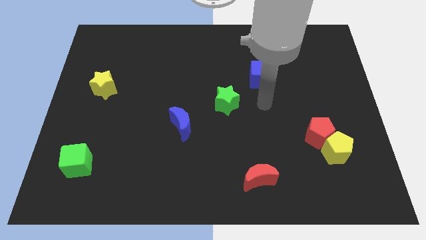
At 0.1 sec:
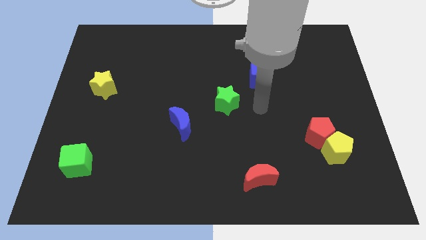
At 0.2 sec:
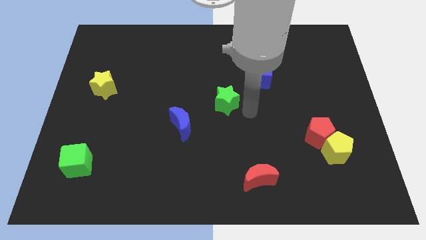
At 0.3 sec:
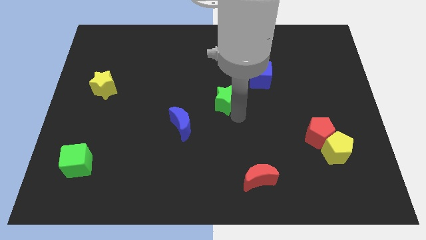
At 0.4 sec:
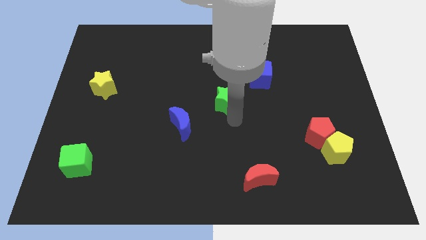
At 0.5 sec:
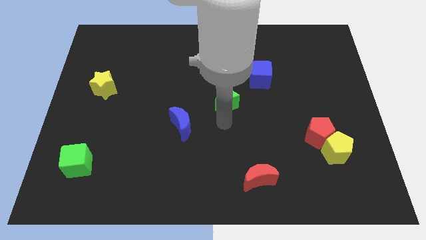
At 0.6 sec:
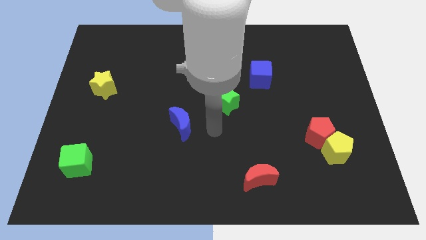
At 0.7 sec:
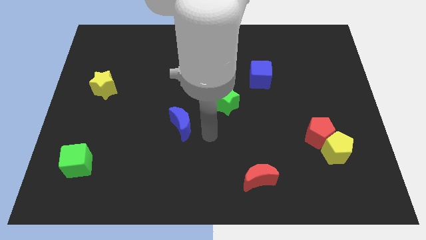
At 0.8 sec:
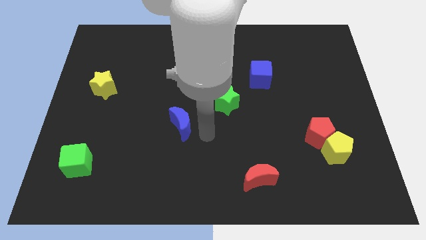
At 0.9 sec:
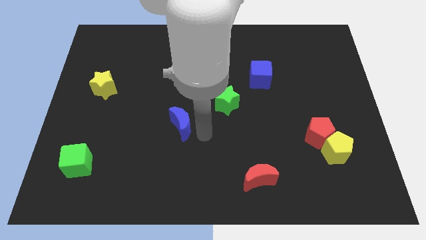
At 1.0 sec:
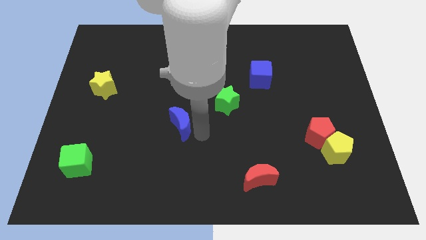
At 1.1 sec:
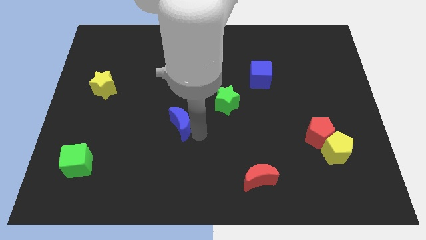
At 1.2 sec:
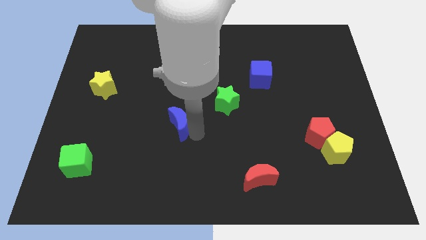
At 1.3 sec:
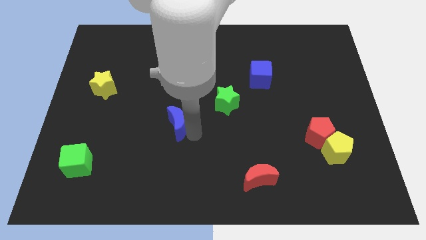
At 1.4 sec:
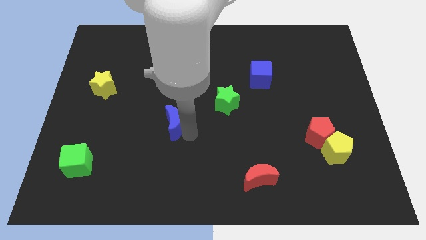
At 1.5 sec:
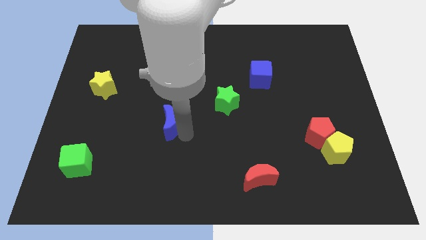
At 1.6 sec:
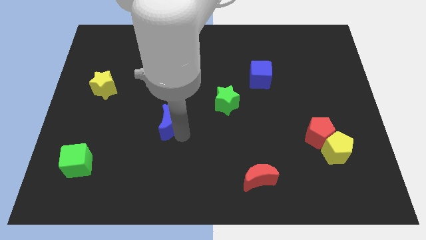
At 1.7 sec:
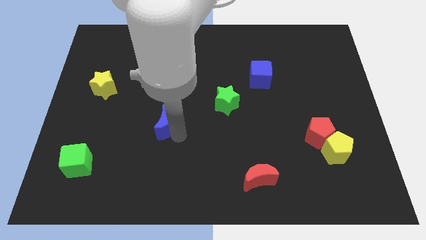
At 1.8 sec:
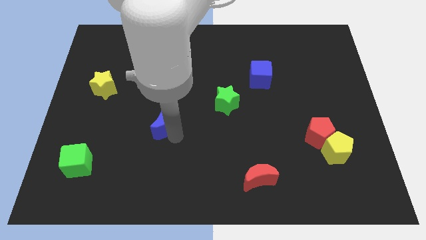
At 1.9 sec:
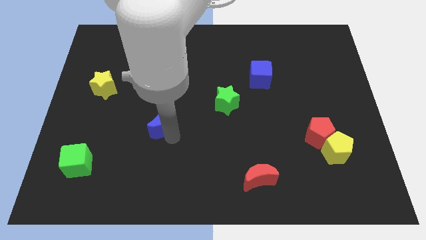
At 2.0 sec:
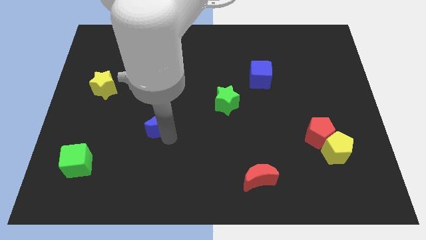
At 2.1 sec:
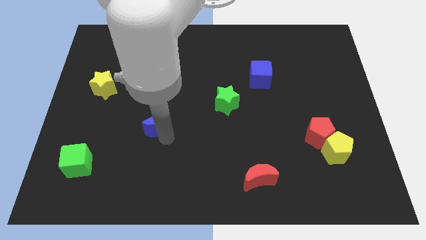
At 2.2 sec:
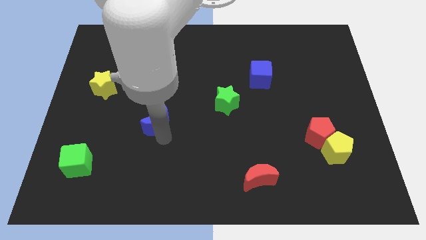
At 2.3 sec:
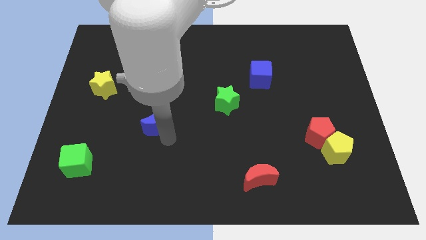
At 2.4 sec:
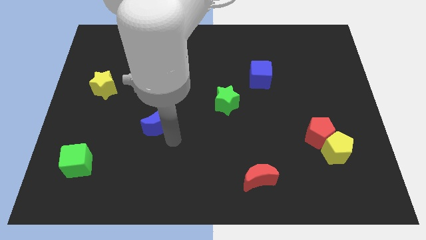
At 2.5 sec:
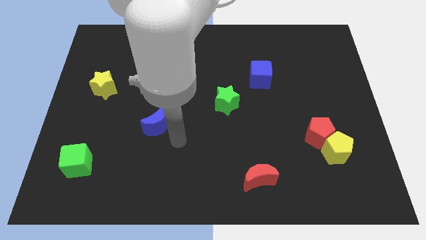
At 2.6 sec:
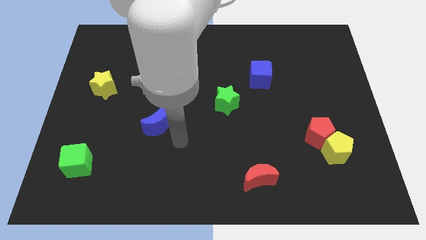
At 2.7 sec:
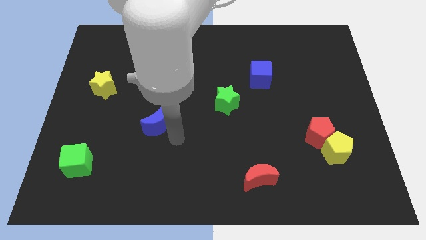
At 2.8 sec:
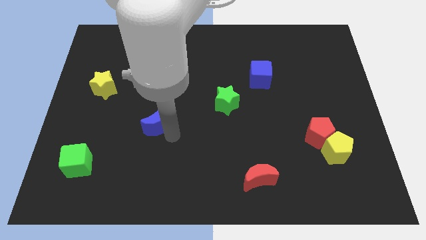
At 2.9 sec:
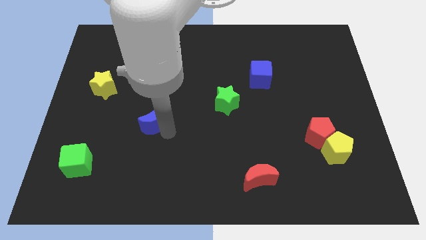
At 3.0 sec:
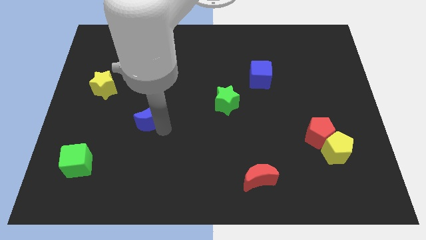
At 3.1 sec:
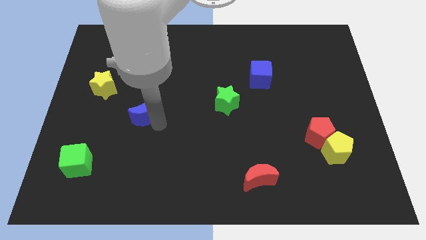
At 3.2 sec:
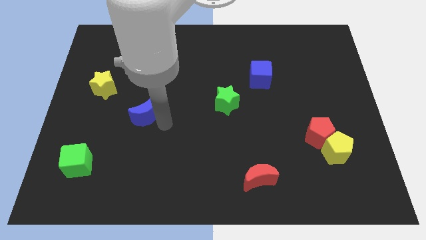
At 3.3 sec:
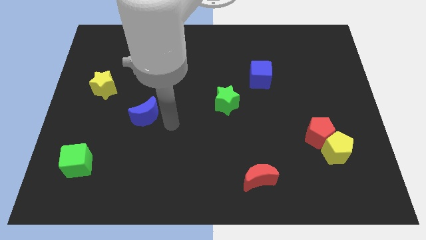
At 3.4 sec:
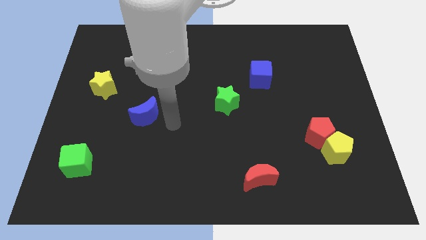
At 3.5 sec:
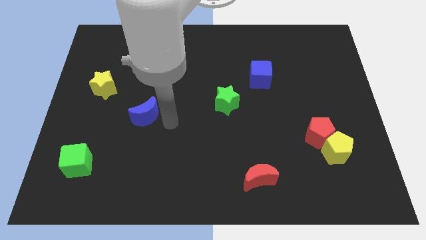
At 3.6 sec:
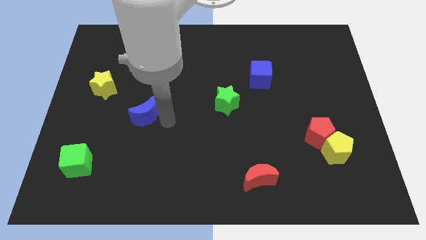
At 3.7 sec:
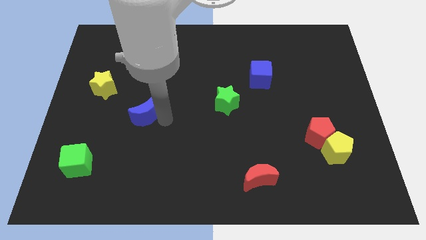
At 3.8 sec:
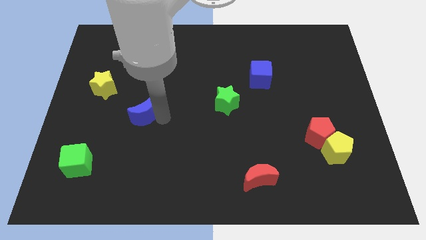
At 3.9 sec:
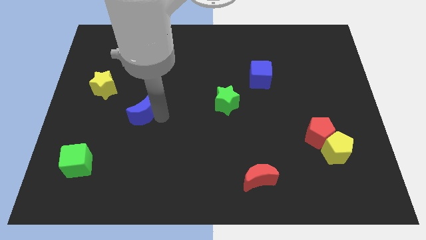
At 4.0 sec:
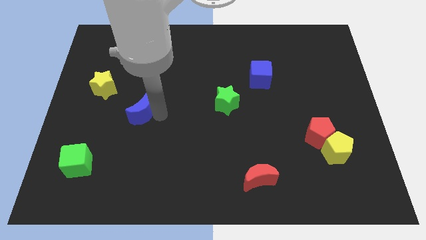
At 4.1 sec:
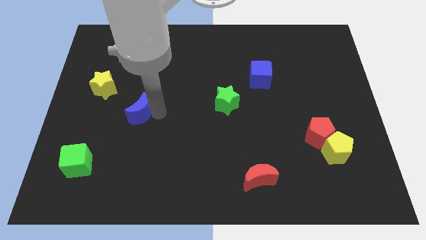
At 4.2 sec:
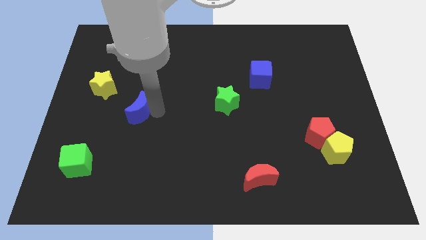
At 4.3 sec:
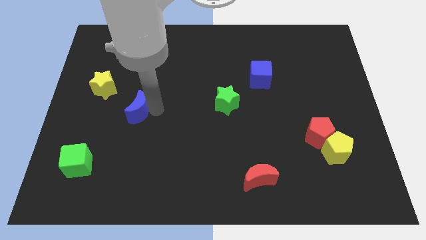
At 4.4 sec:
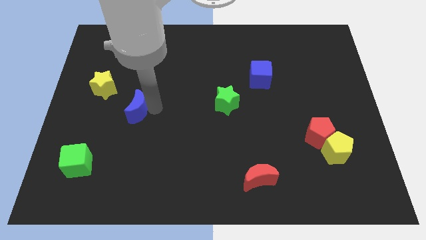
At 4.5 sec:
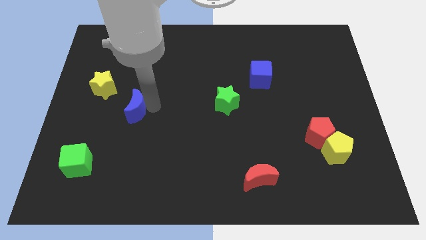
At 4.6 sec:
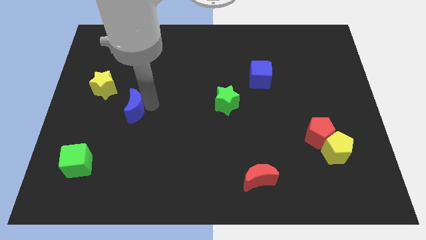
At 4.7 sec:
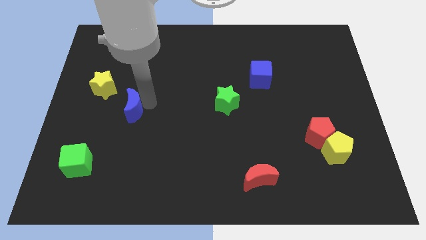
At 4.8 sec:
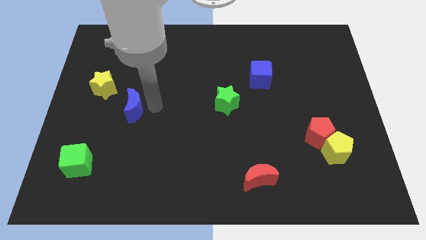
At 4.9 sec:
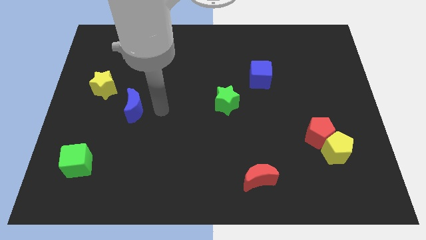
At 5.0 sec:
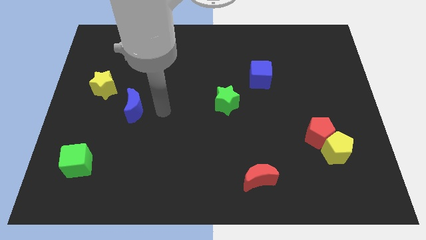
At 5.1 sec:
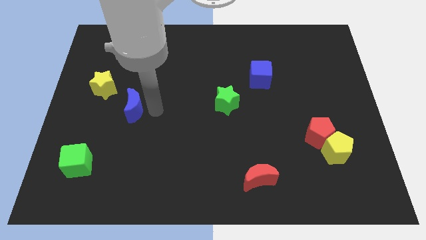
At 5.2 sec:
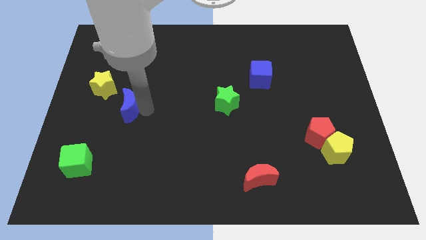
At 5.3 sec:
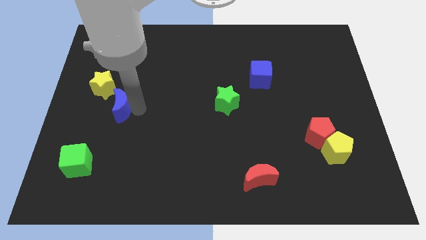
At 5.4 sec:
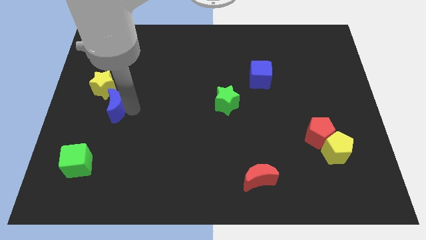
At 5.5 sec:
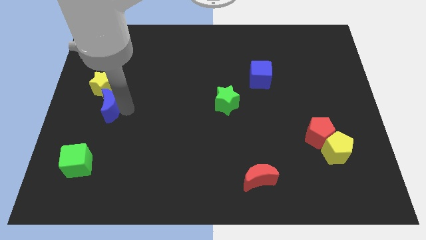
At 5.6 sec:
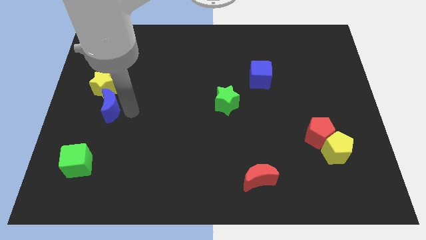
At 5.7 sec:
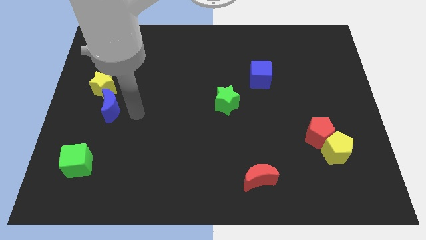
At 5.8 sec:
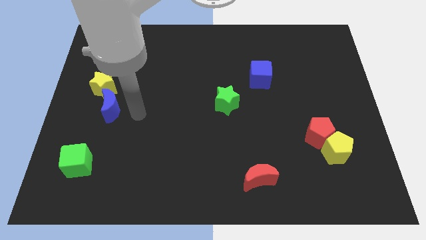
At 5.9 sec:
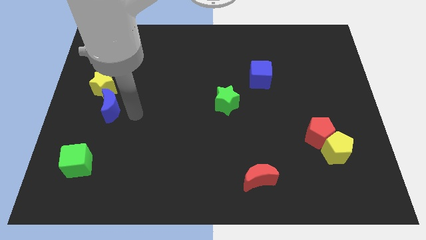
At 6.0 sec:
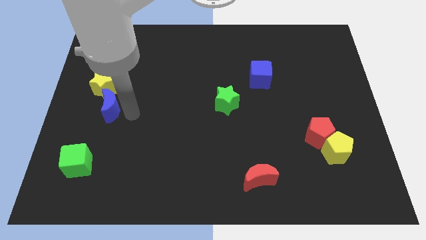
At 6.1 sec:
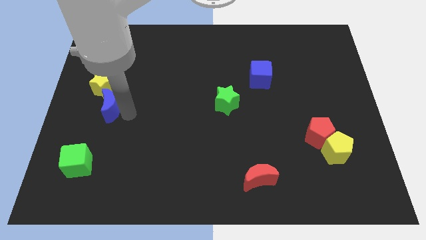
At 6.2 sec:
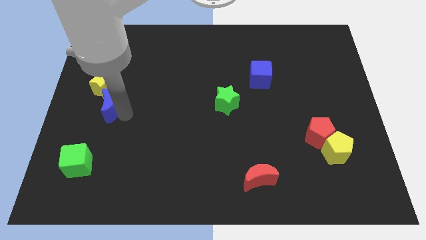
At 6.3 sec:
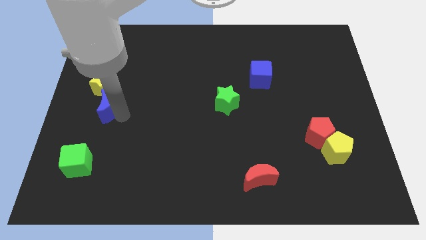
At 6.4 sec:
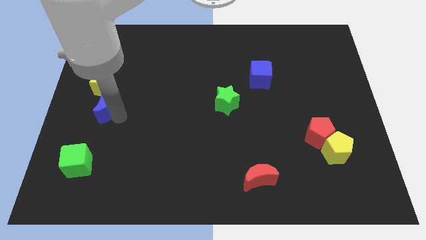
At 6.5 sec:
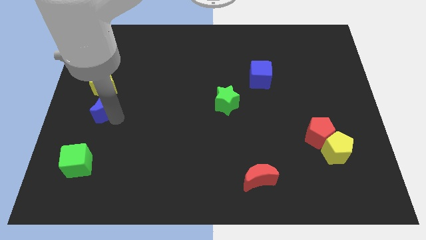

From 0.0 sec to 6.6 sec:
push the blue moon to the center left

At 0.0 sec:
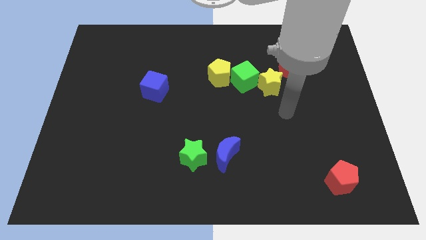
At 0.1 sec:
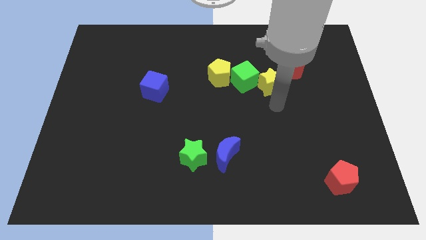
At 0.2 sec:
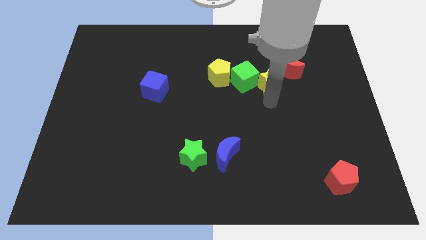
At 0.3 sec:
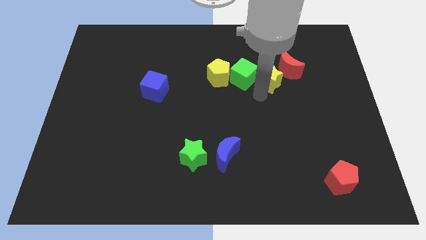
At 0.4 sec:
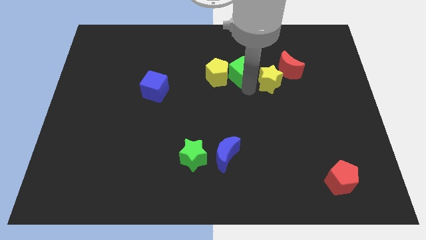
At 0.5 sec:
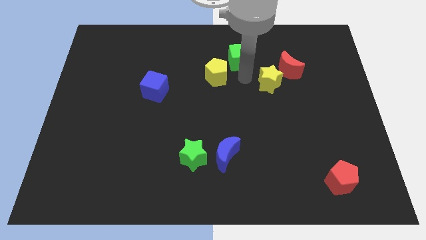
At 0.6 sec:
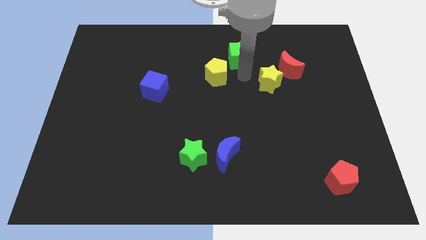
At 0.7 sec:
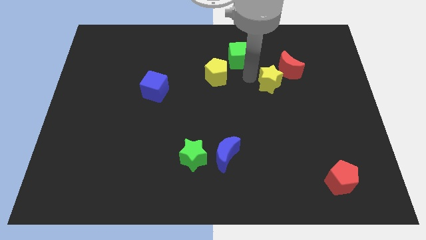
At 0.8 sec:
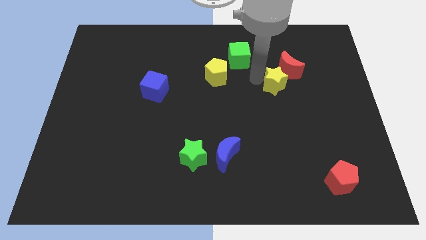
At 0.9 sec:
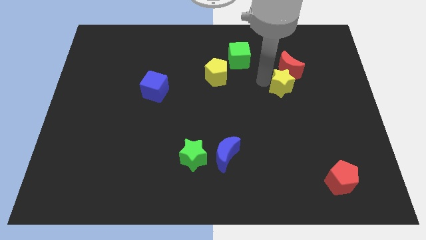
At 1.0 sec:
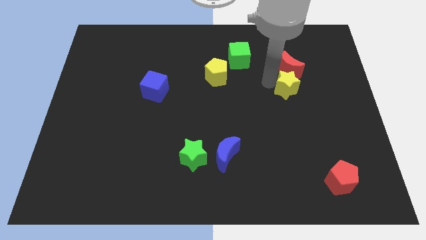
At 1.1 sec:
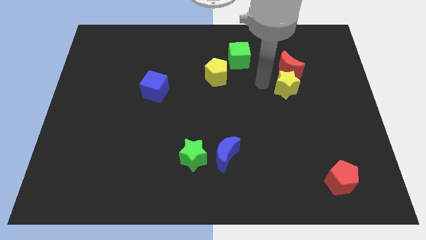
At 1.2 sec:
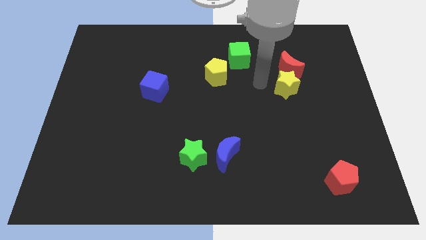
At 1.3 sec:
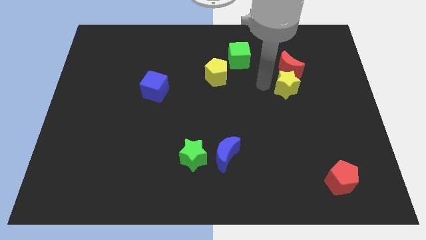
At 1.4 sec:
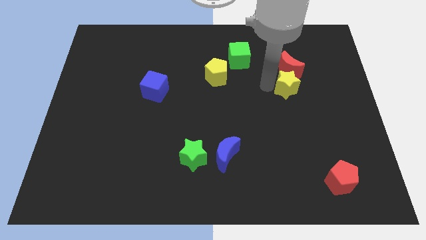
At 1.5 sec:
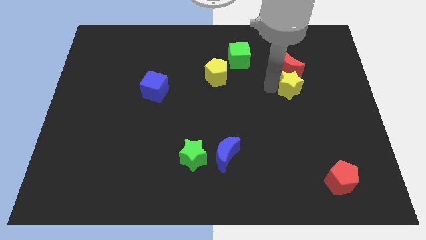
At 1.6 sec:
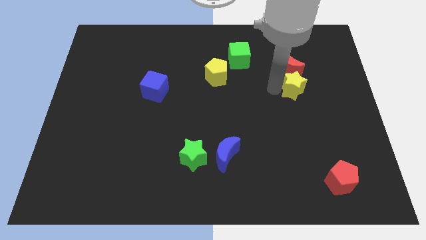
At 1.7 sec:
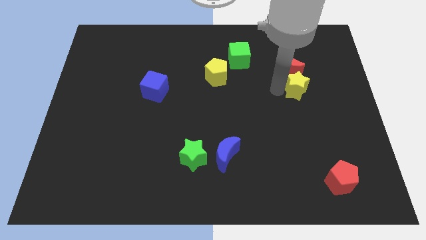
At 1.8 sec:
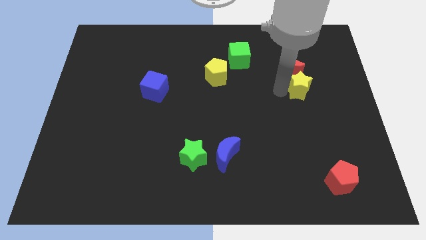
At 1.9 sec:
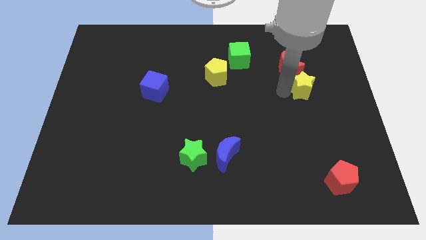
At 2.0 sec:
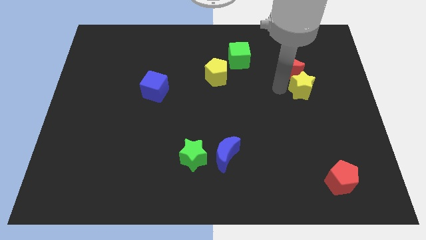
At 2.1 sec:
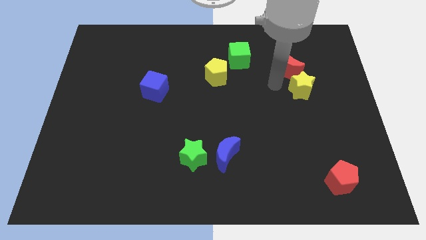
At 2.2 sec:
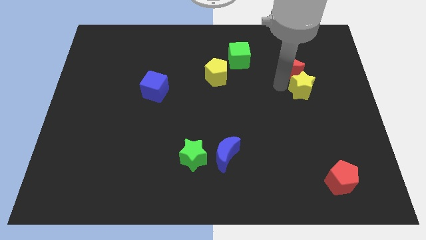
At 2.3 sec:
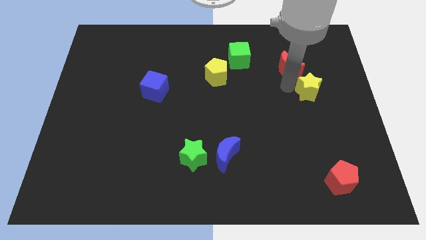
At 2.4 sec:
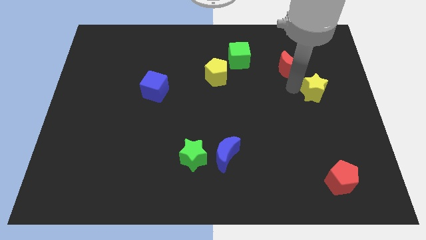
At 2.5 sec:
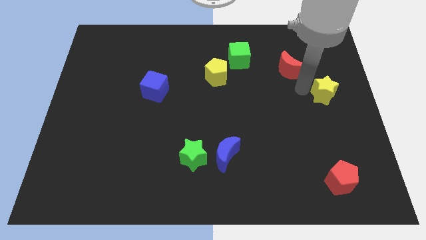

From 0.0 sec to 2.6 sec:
slide the yellow star to the center right
